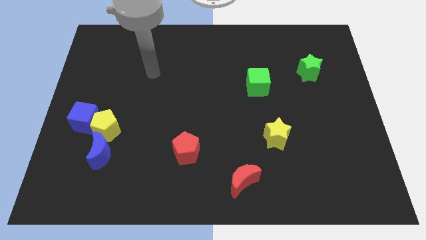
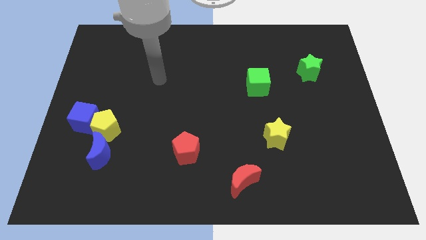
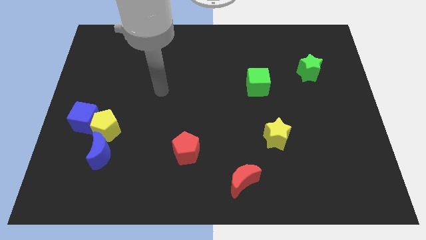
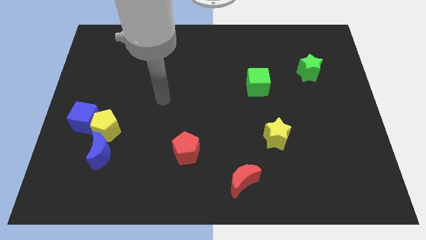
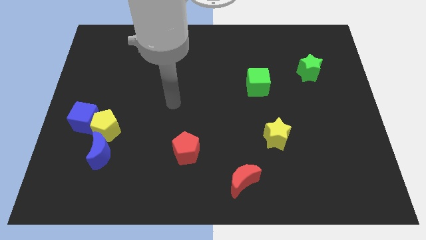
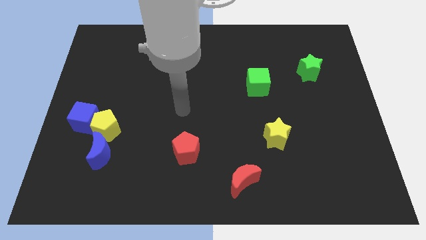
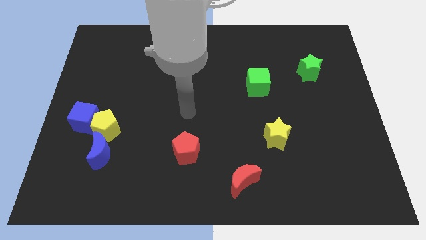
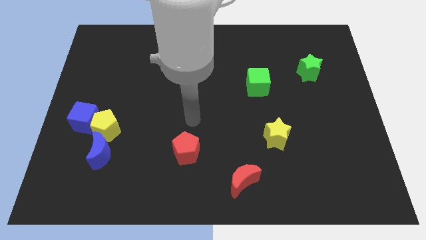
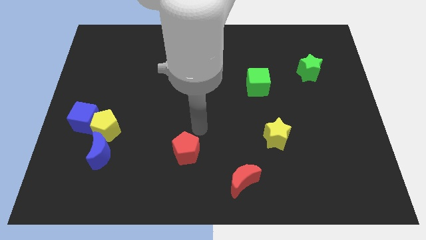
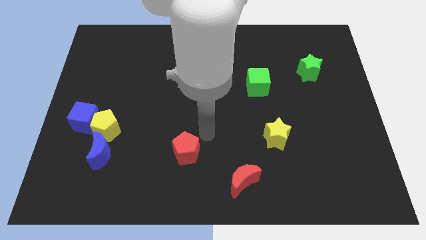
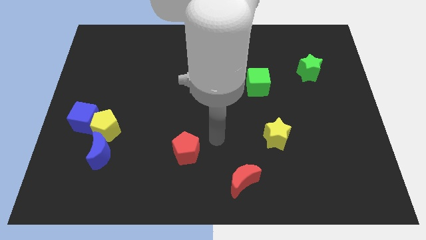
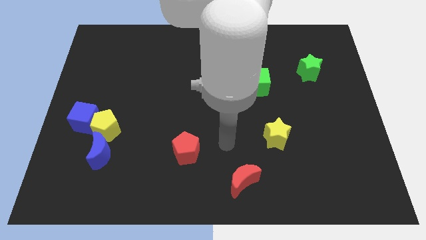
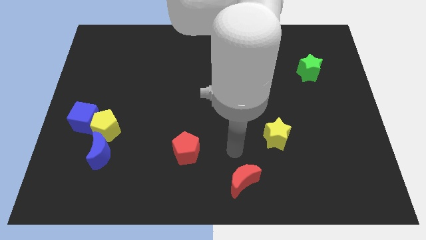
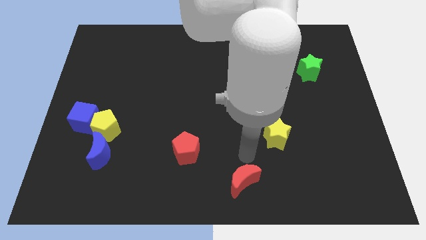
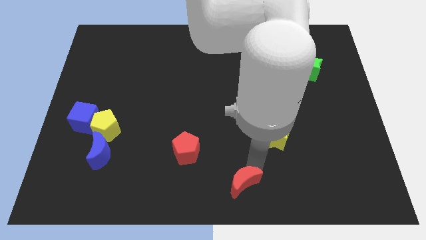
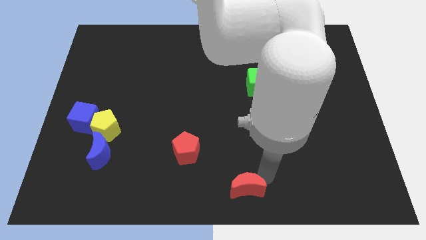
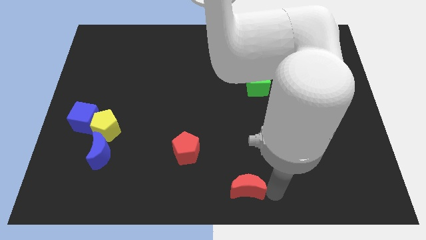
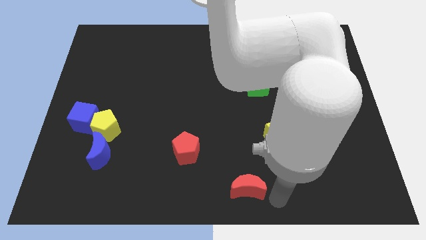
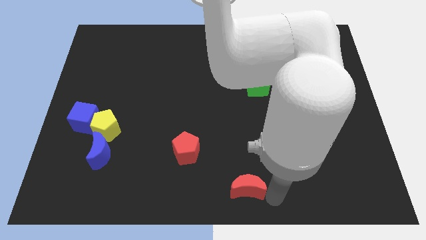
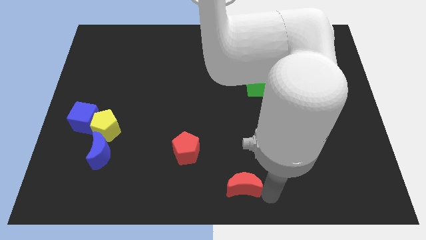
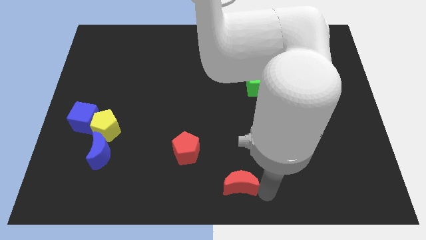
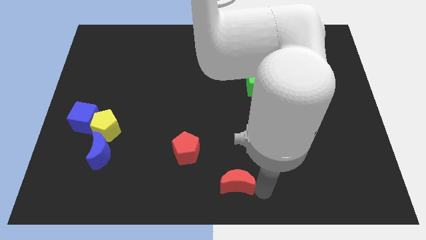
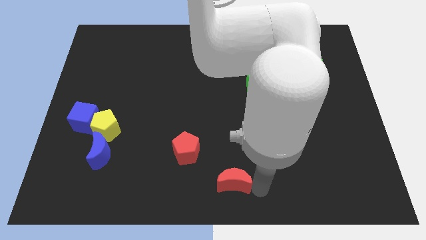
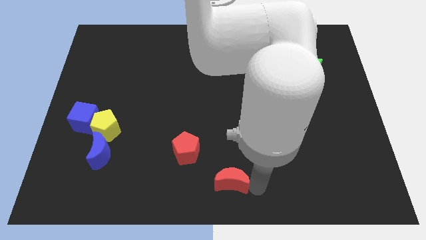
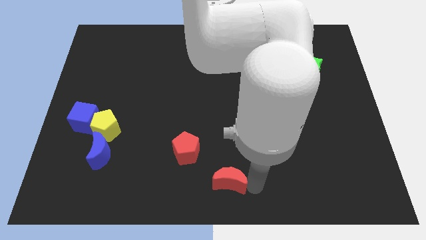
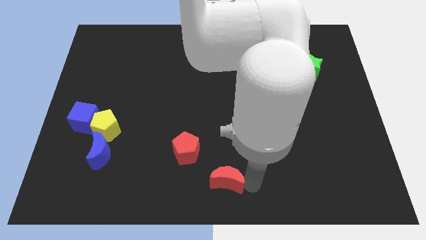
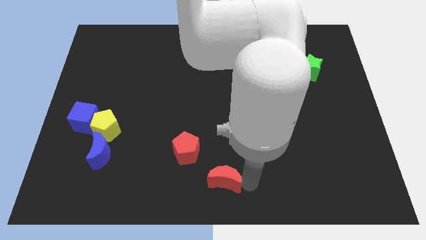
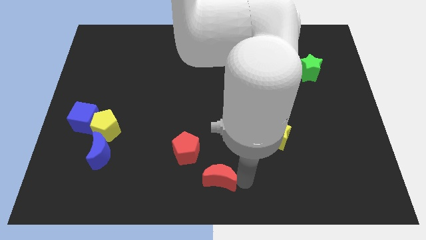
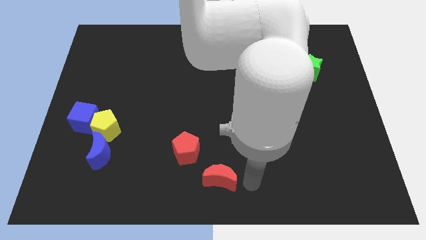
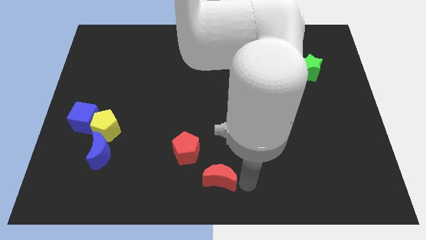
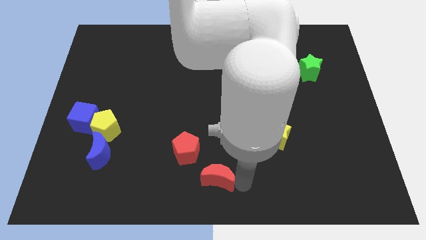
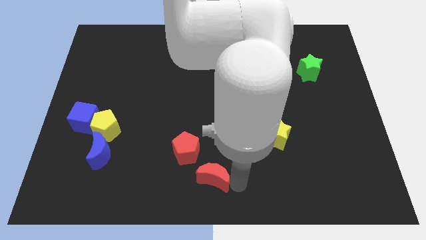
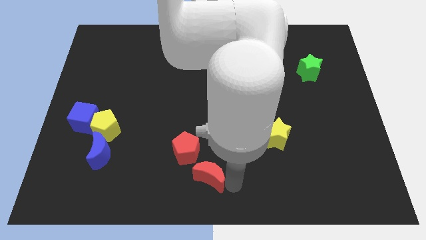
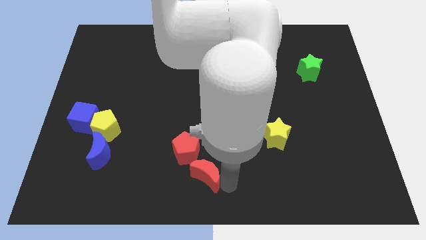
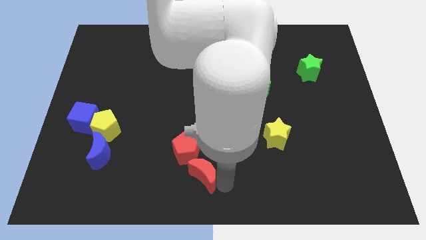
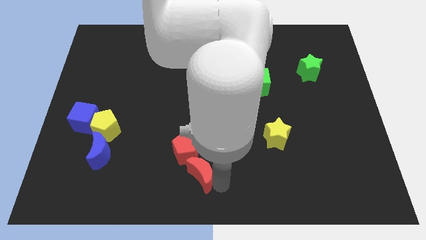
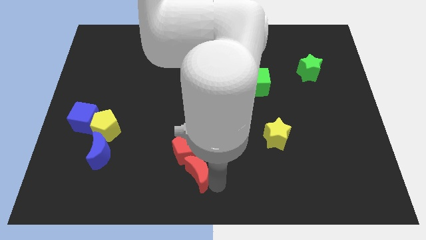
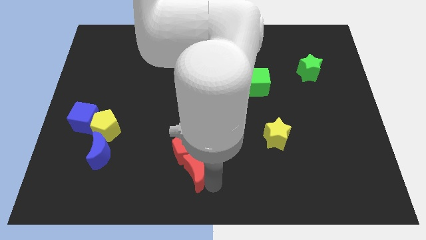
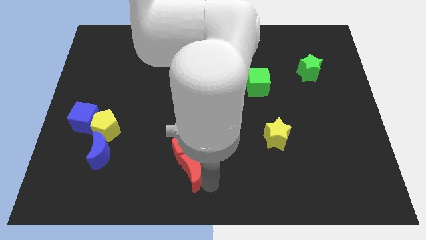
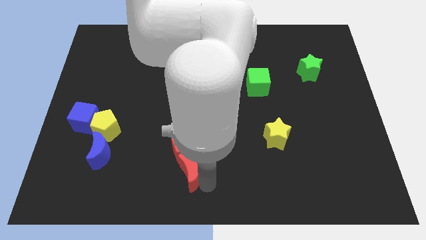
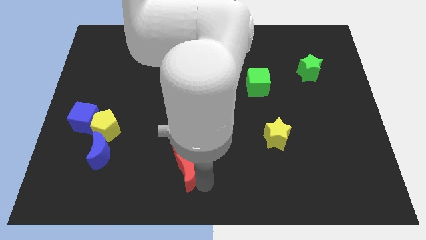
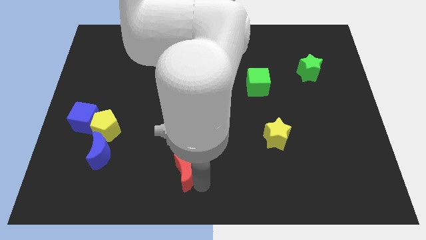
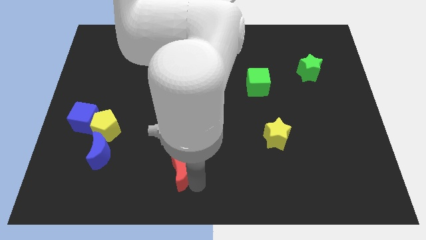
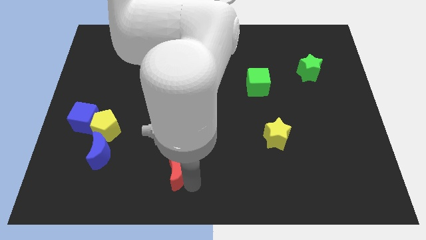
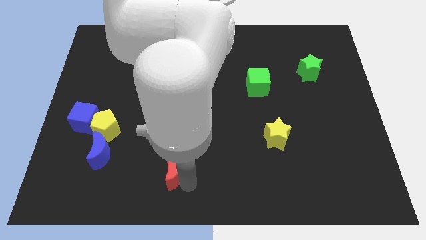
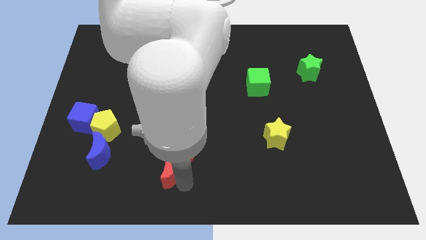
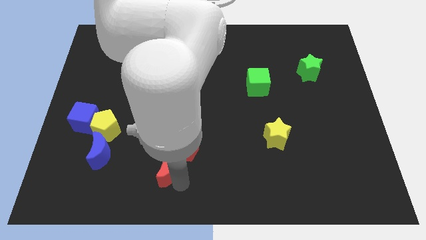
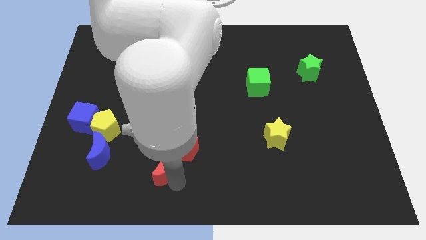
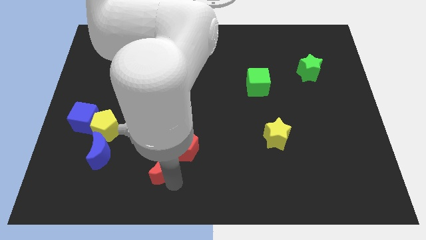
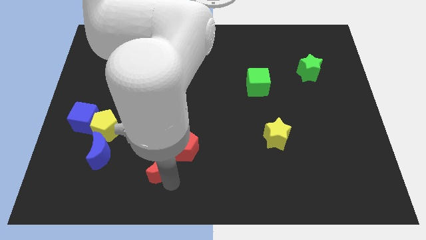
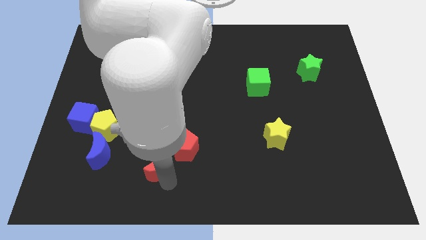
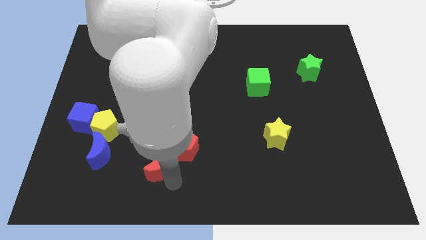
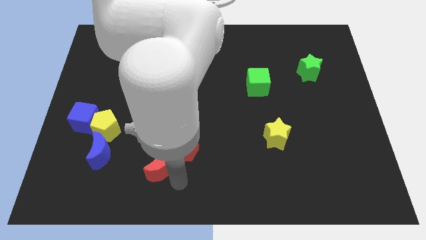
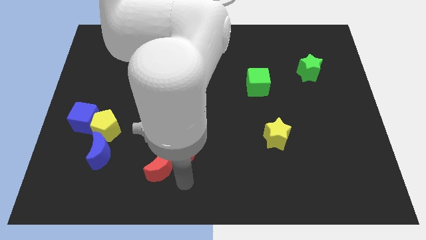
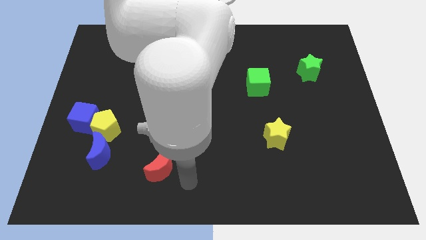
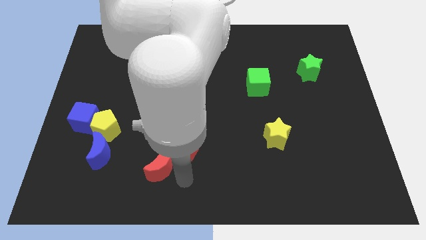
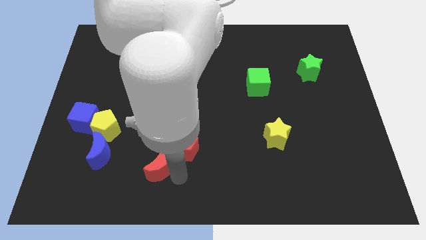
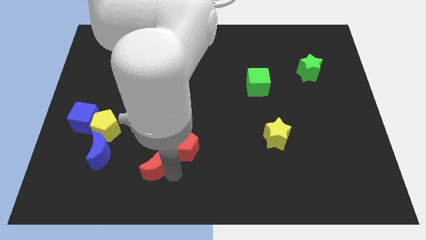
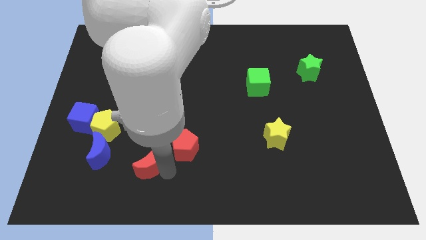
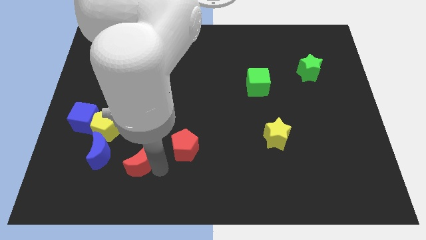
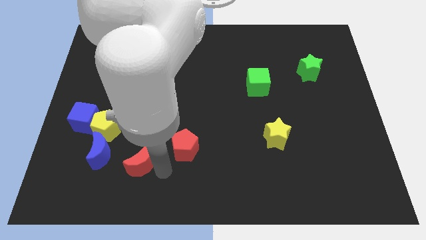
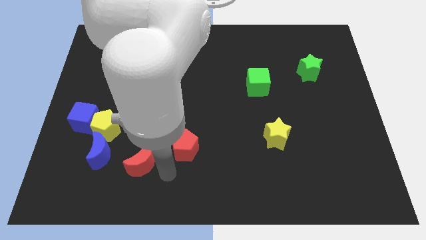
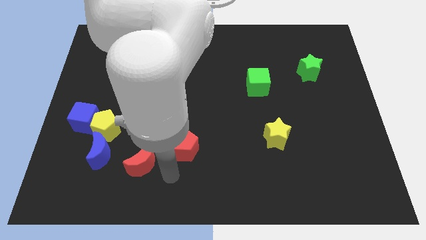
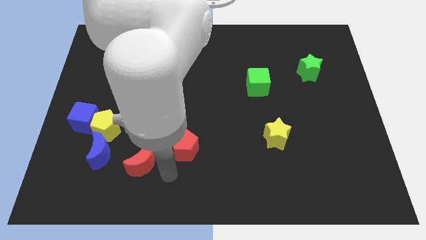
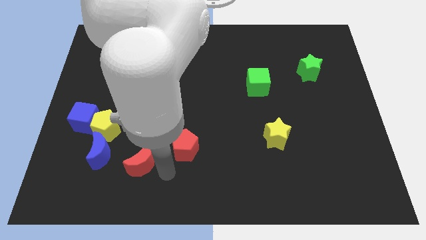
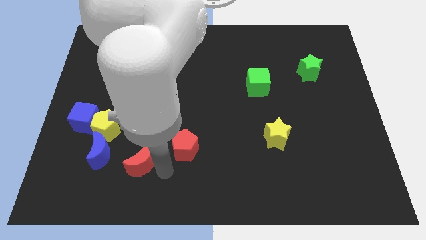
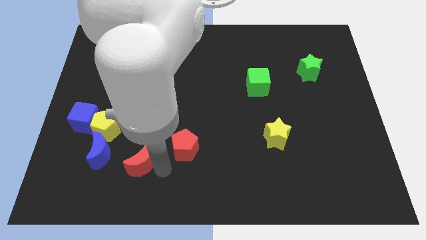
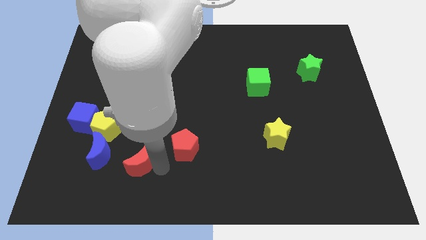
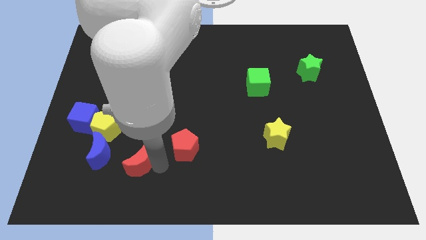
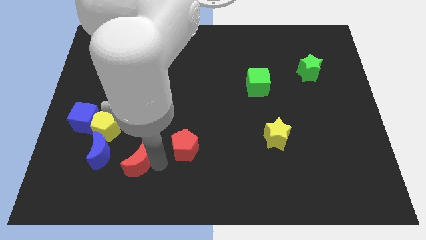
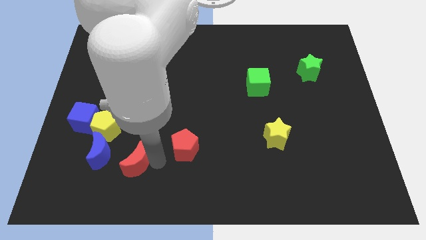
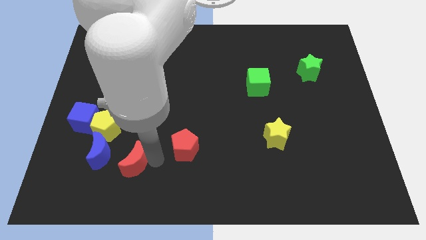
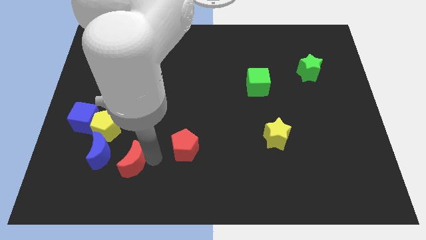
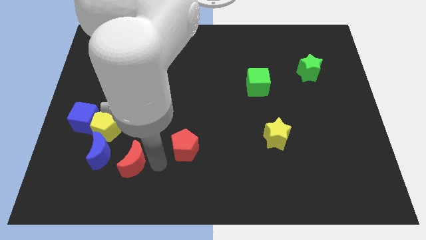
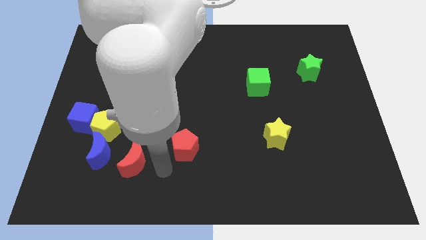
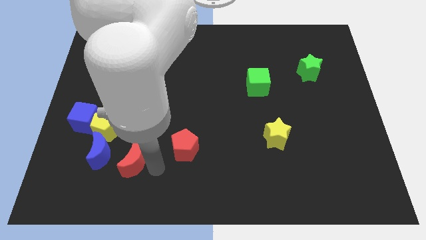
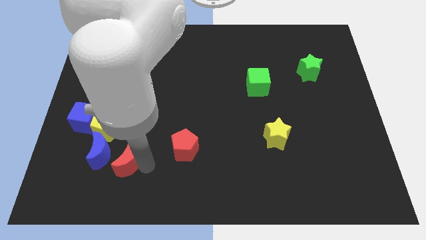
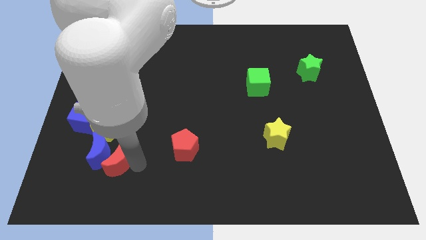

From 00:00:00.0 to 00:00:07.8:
put the red moon next to the blue moon
